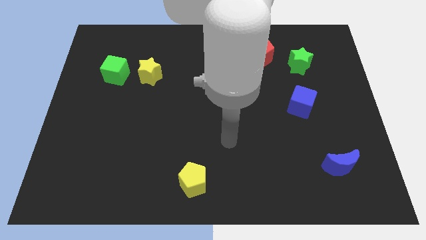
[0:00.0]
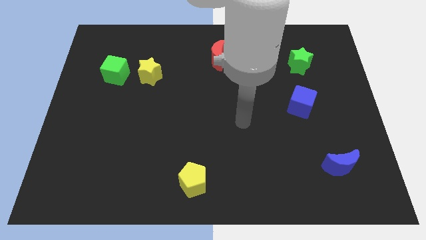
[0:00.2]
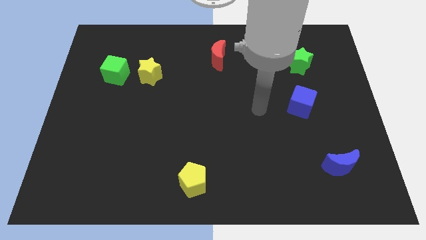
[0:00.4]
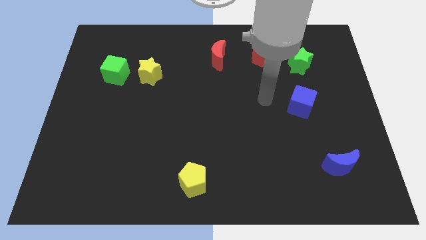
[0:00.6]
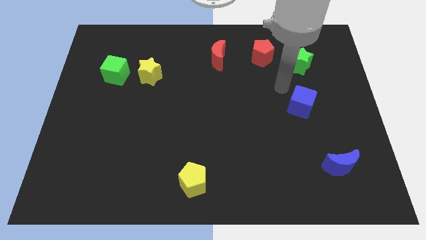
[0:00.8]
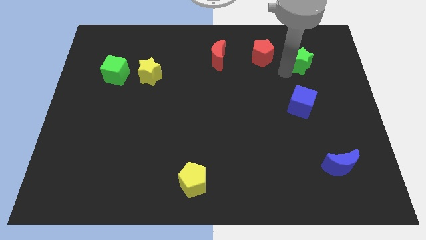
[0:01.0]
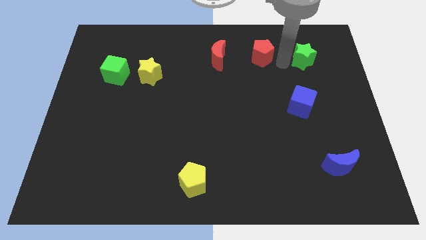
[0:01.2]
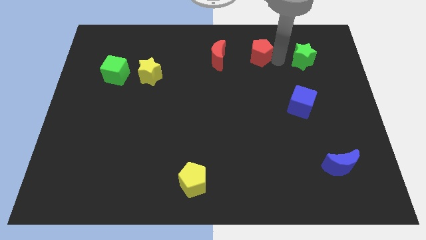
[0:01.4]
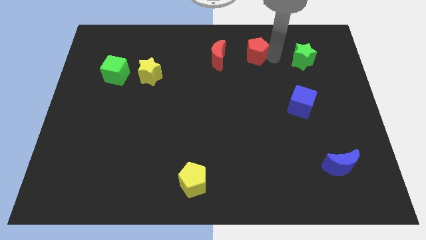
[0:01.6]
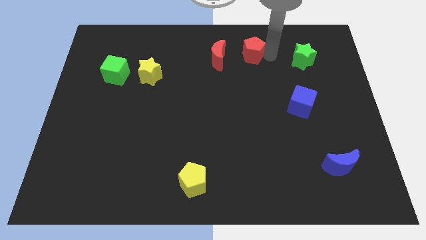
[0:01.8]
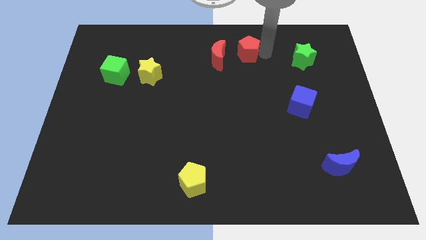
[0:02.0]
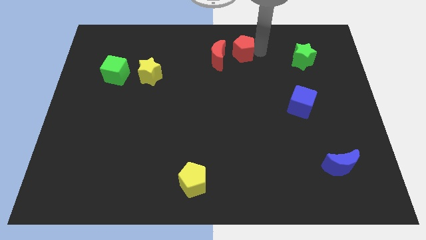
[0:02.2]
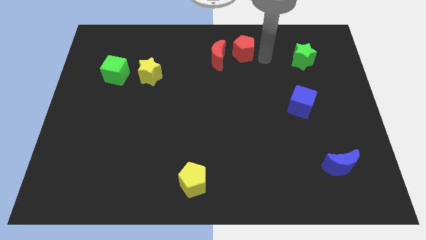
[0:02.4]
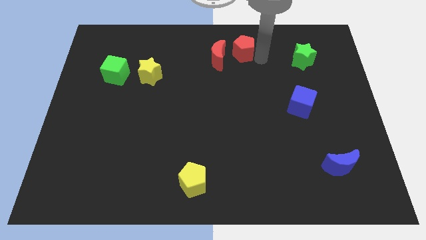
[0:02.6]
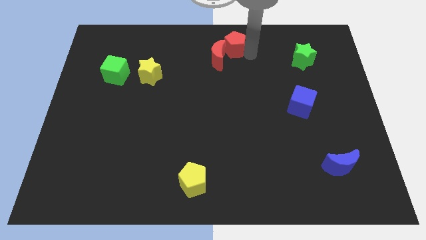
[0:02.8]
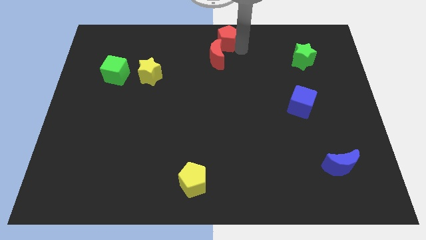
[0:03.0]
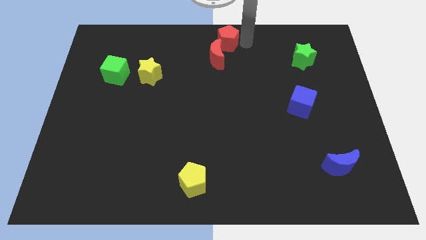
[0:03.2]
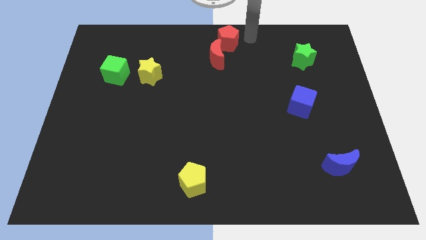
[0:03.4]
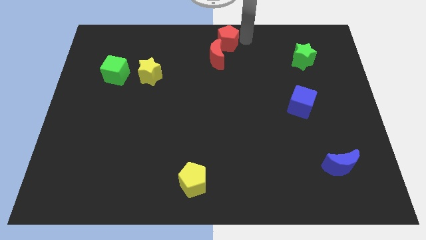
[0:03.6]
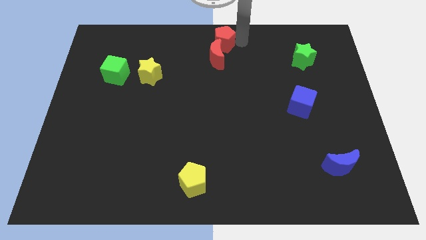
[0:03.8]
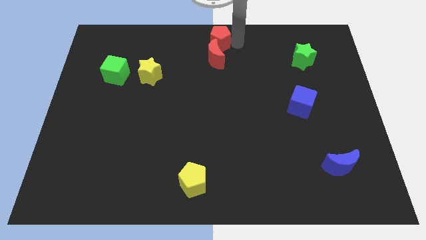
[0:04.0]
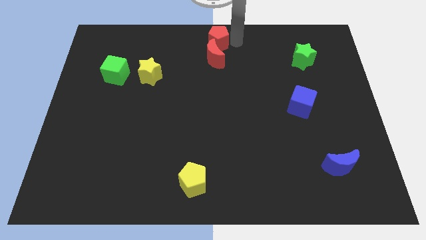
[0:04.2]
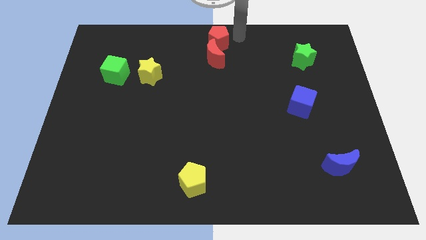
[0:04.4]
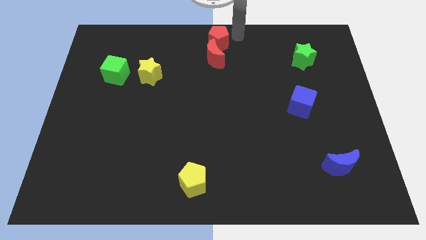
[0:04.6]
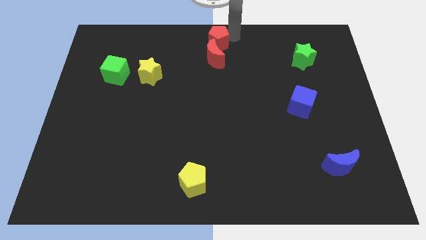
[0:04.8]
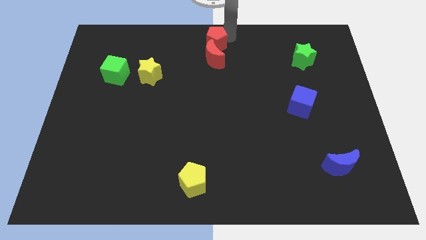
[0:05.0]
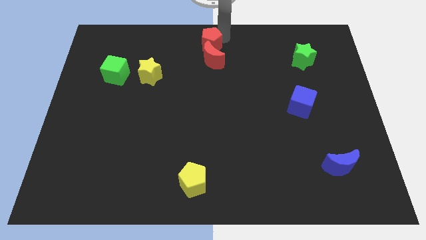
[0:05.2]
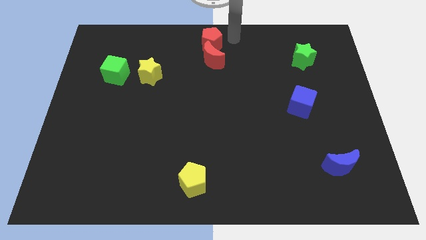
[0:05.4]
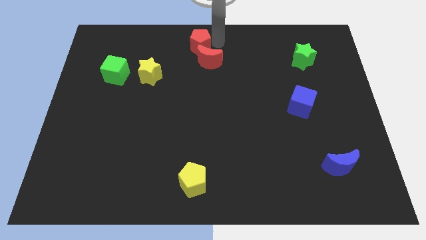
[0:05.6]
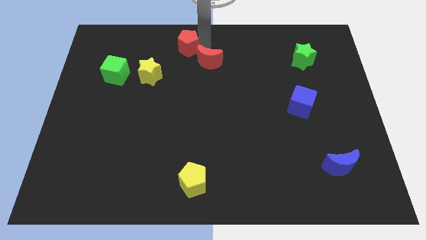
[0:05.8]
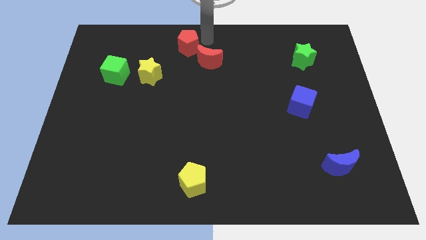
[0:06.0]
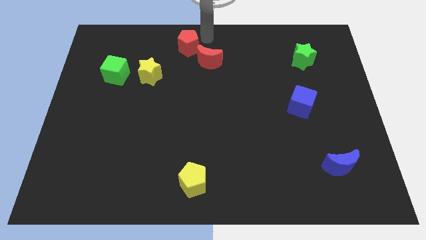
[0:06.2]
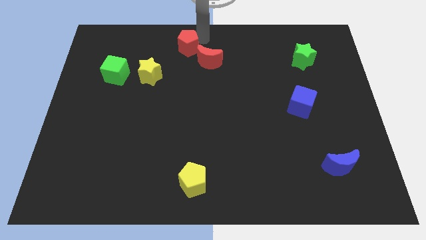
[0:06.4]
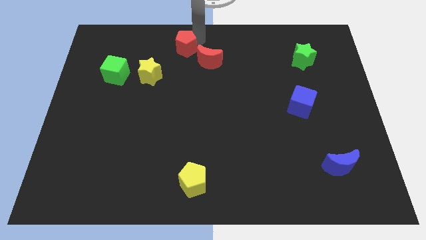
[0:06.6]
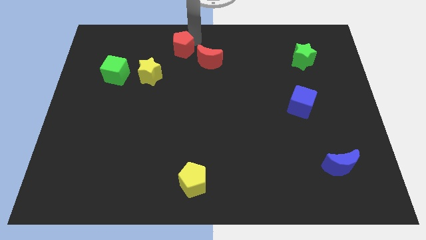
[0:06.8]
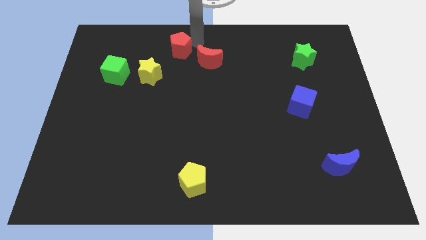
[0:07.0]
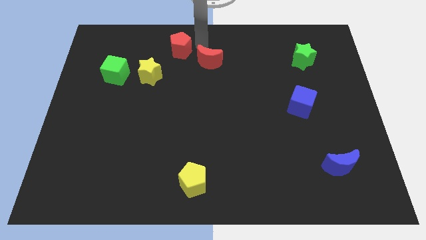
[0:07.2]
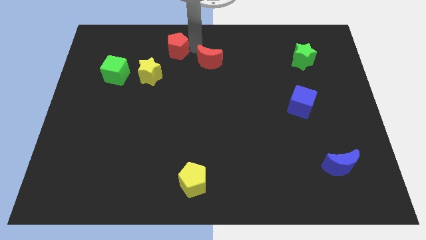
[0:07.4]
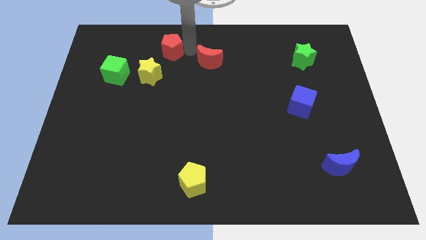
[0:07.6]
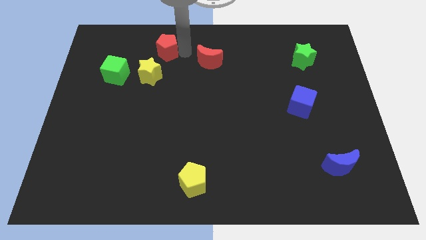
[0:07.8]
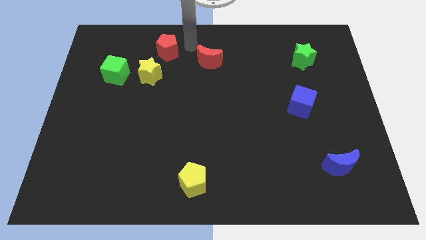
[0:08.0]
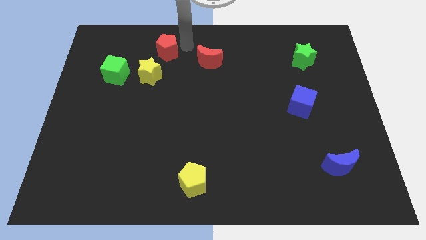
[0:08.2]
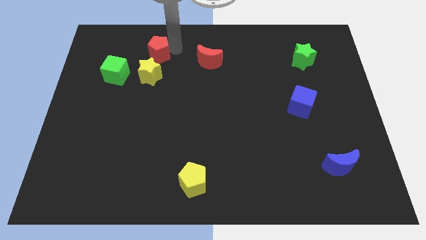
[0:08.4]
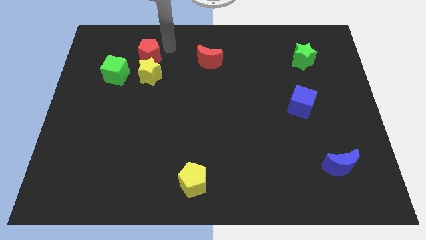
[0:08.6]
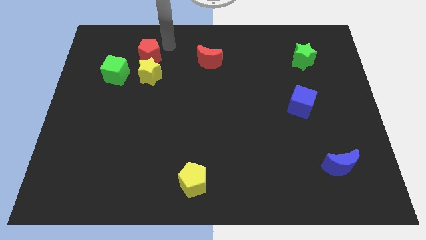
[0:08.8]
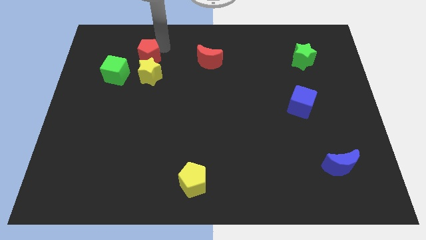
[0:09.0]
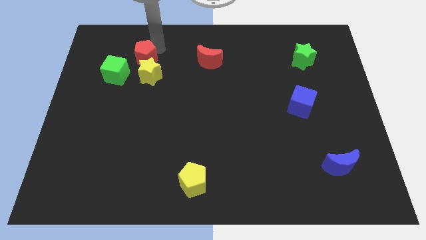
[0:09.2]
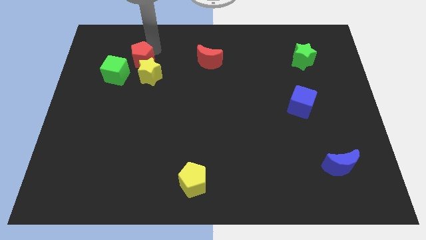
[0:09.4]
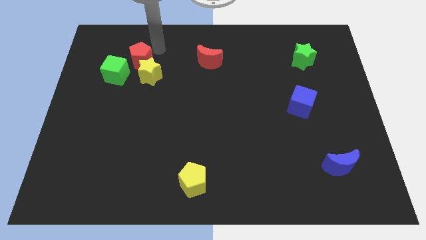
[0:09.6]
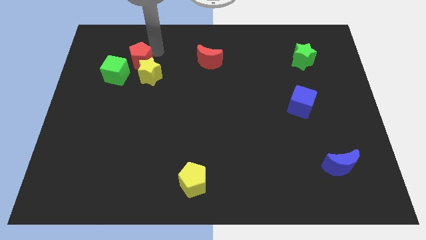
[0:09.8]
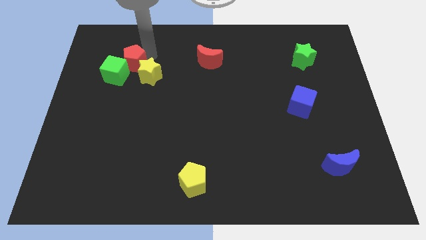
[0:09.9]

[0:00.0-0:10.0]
push the red pentagon next to the green cube

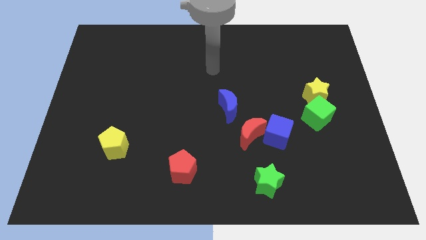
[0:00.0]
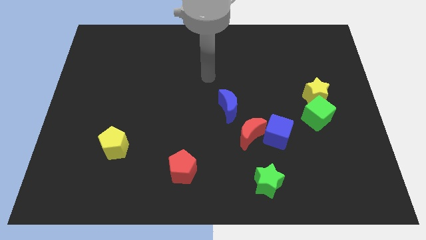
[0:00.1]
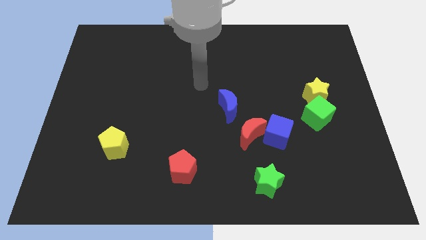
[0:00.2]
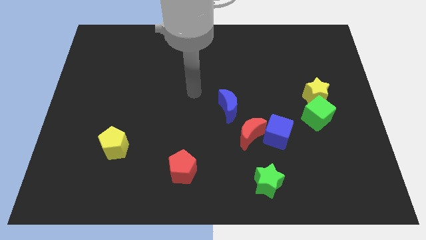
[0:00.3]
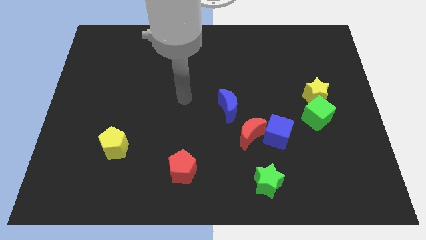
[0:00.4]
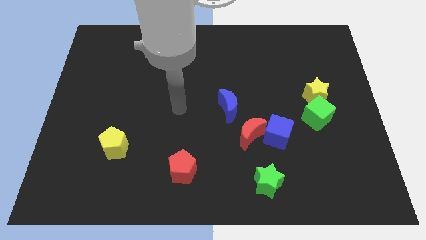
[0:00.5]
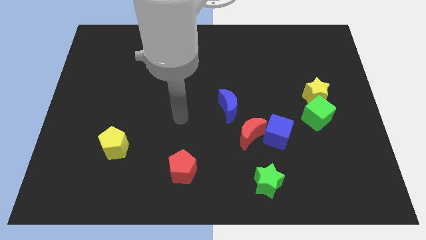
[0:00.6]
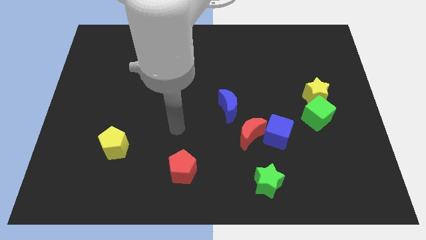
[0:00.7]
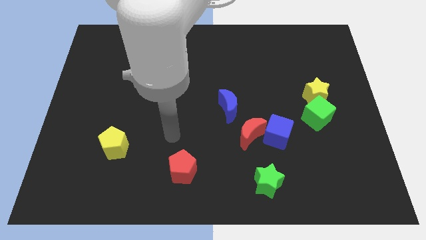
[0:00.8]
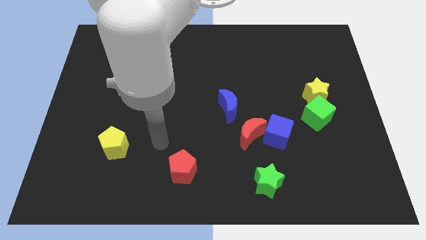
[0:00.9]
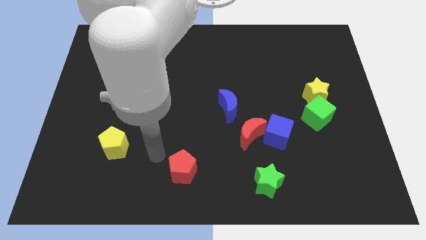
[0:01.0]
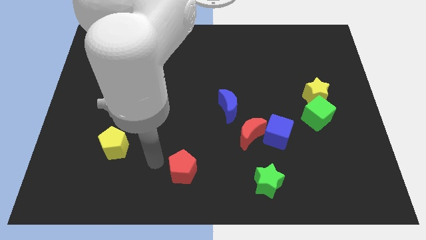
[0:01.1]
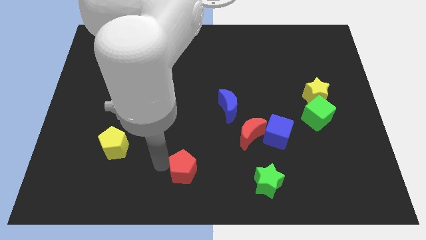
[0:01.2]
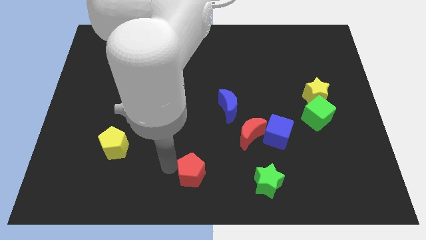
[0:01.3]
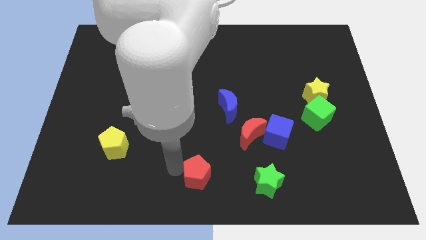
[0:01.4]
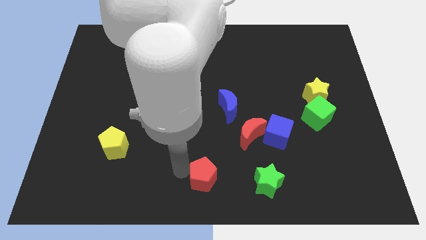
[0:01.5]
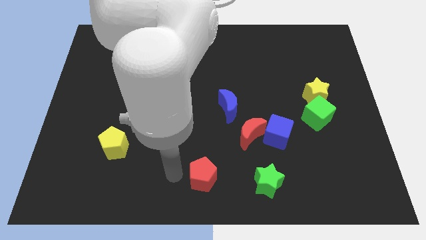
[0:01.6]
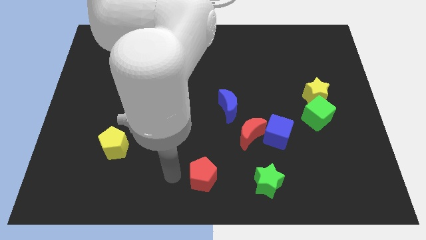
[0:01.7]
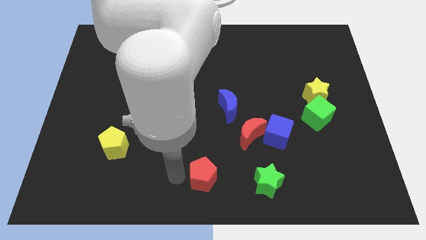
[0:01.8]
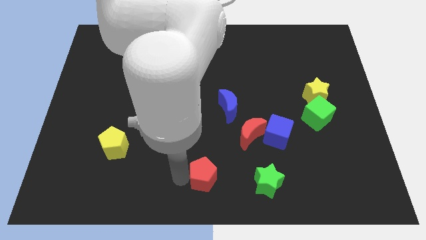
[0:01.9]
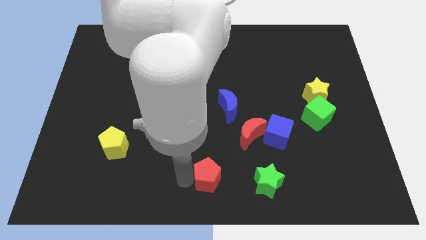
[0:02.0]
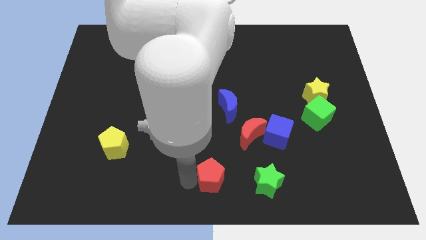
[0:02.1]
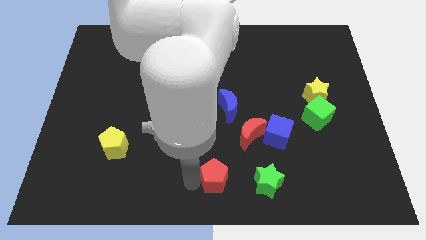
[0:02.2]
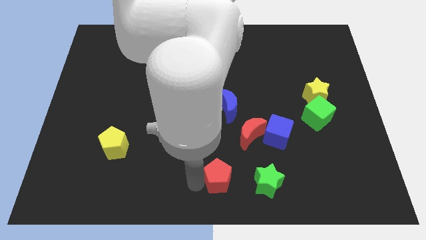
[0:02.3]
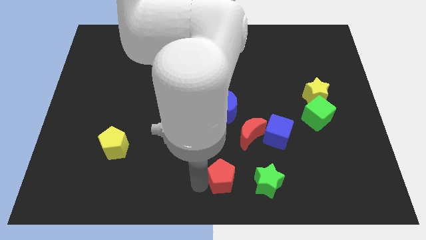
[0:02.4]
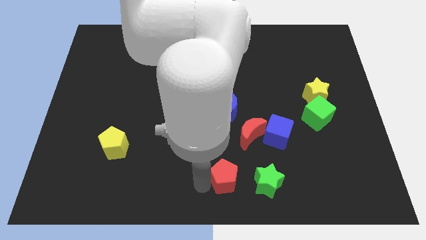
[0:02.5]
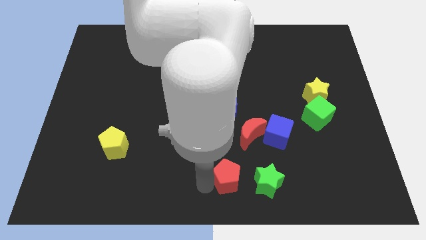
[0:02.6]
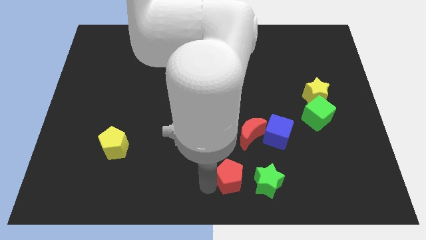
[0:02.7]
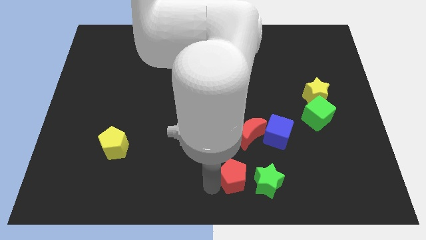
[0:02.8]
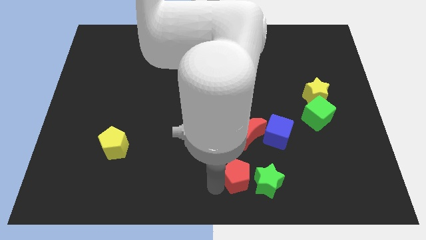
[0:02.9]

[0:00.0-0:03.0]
move the red pentagon close to the green star
